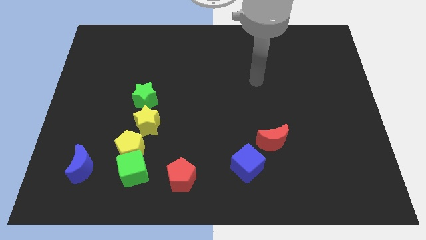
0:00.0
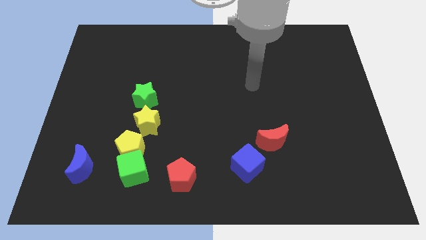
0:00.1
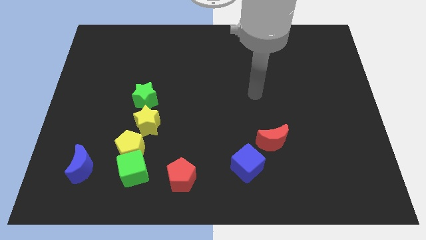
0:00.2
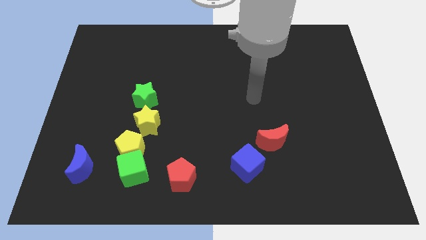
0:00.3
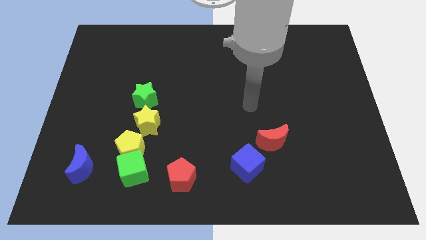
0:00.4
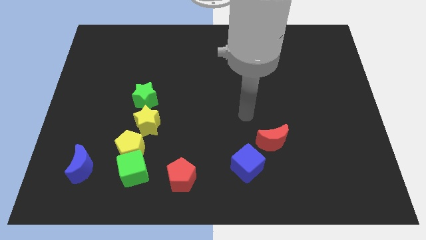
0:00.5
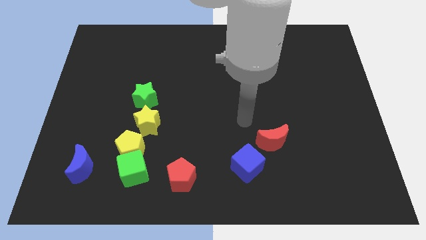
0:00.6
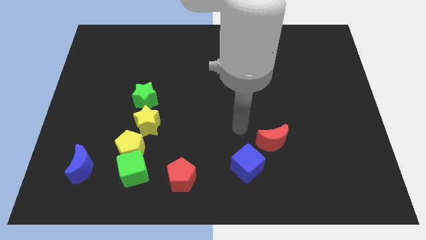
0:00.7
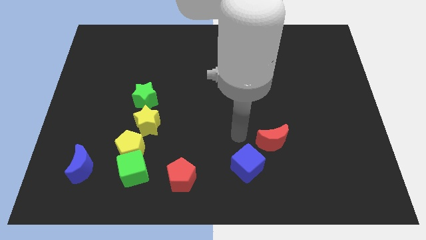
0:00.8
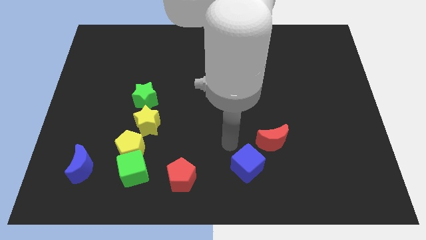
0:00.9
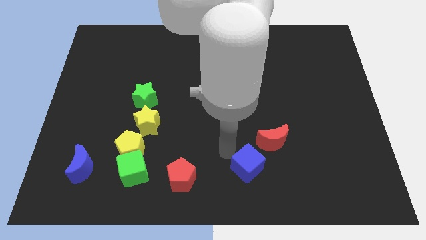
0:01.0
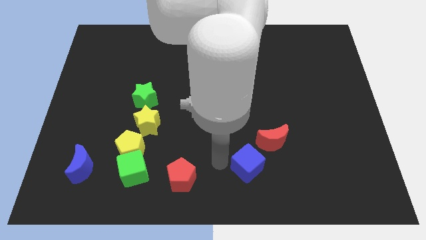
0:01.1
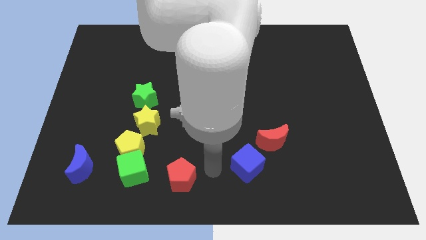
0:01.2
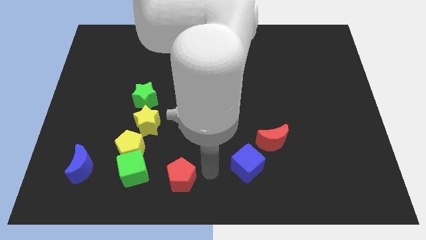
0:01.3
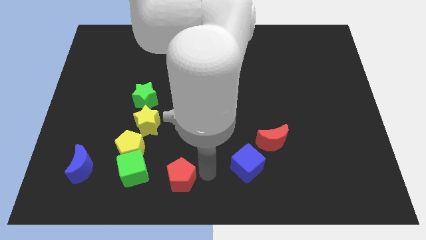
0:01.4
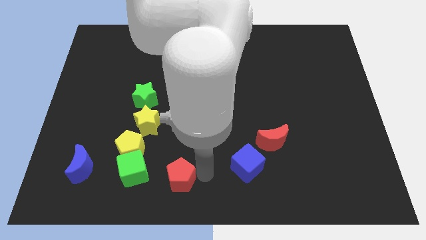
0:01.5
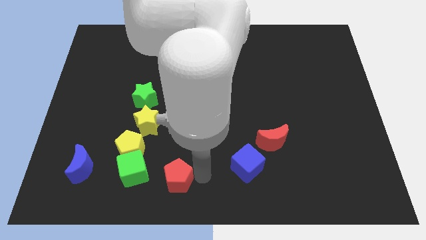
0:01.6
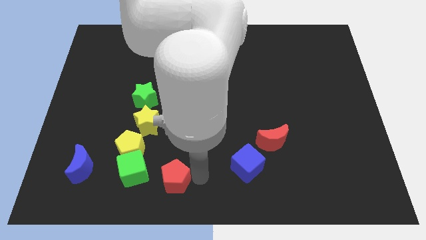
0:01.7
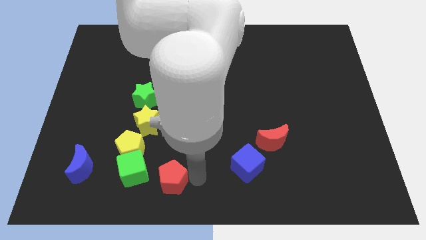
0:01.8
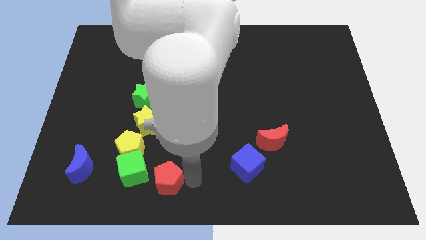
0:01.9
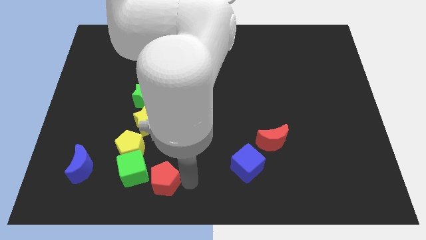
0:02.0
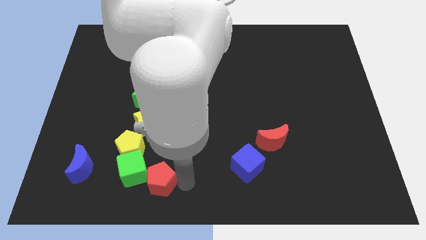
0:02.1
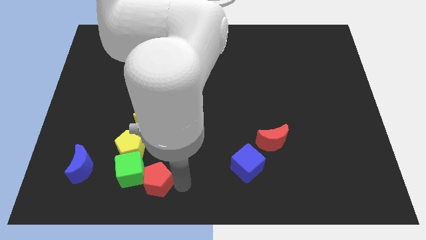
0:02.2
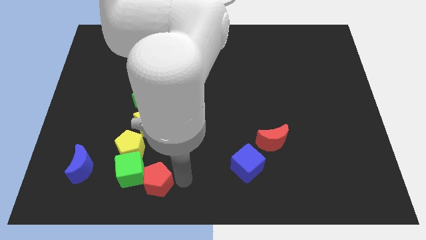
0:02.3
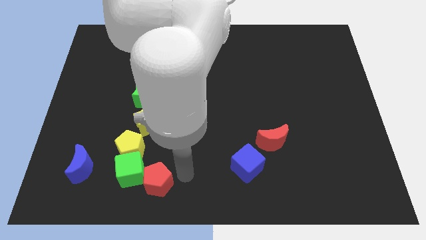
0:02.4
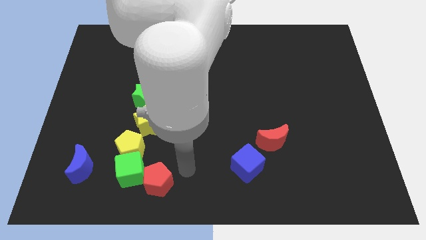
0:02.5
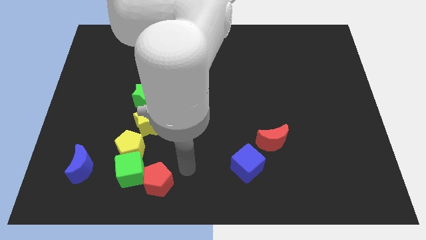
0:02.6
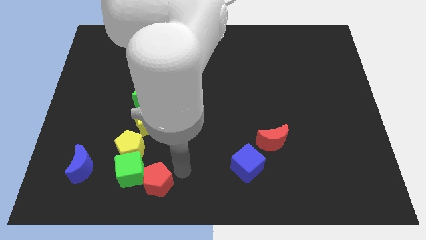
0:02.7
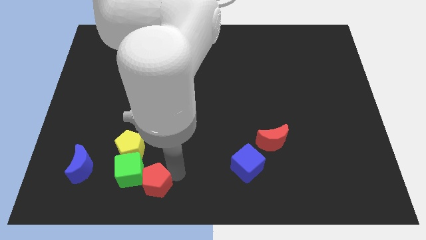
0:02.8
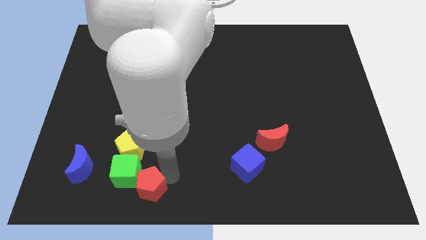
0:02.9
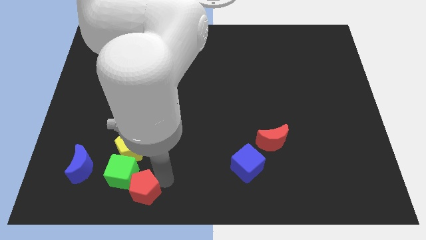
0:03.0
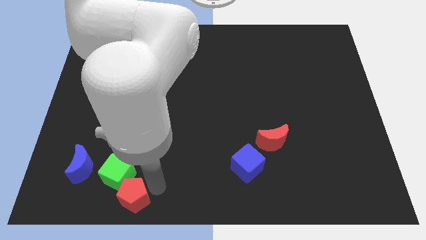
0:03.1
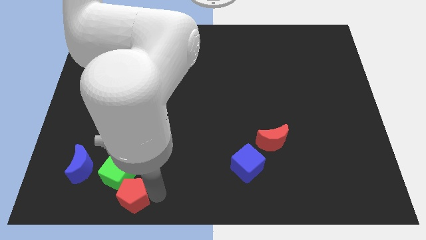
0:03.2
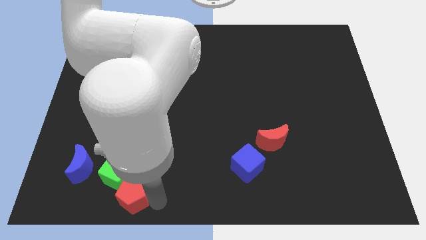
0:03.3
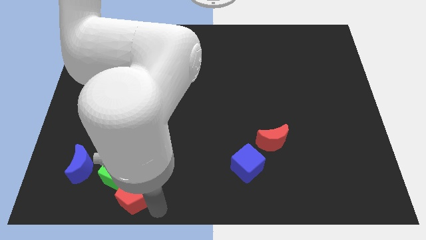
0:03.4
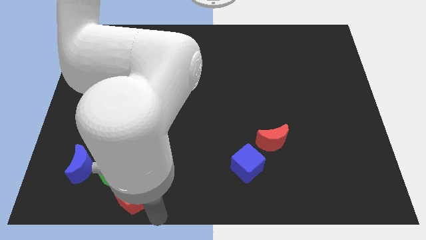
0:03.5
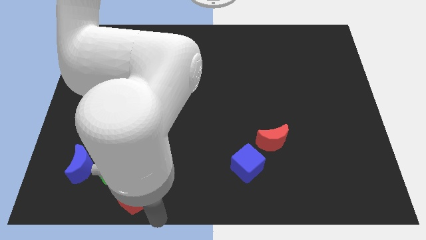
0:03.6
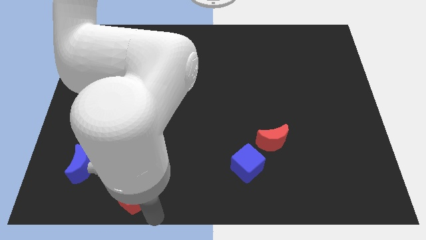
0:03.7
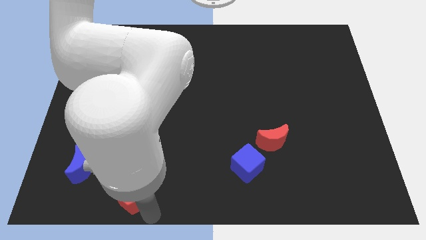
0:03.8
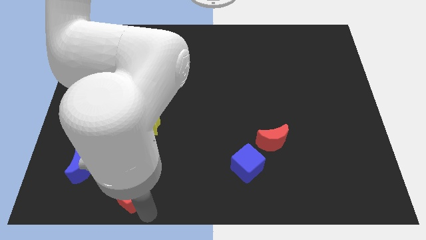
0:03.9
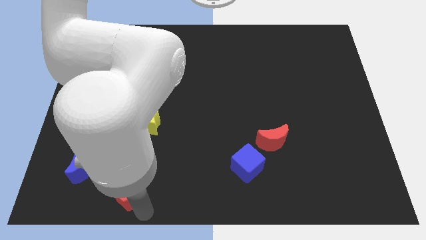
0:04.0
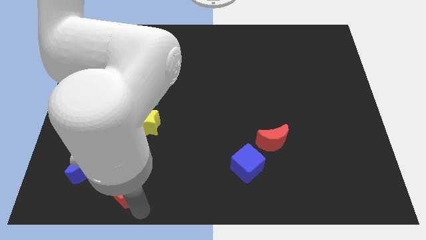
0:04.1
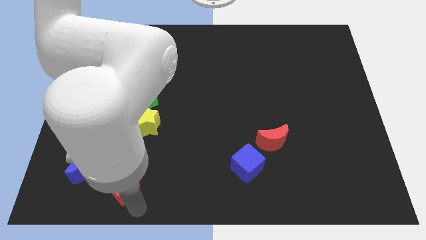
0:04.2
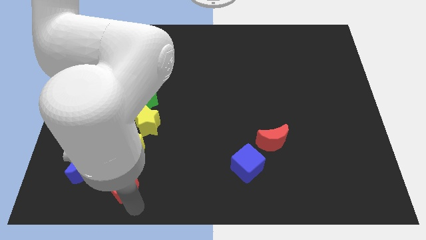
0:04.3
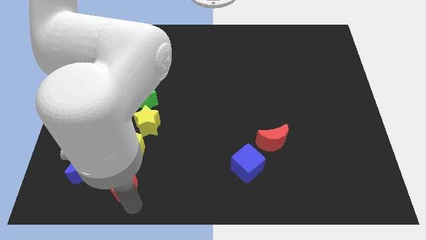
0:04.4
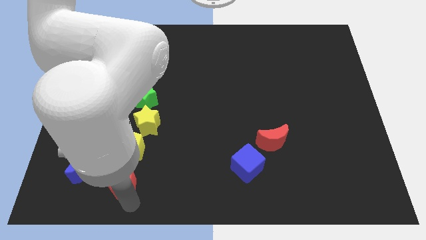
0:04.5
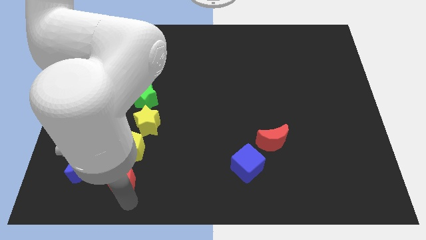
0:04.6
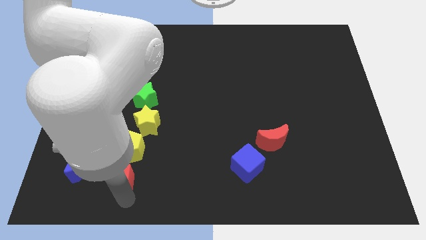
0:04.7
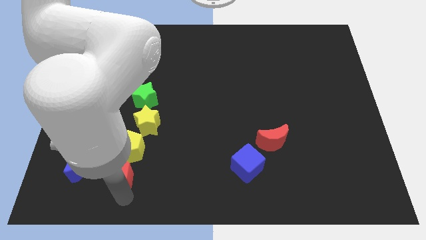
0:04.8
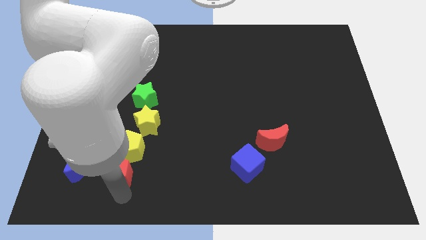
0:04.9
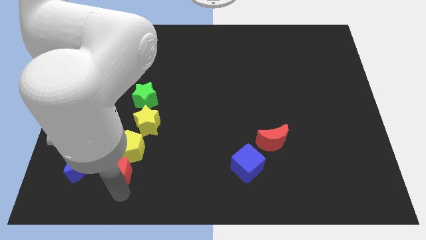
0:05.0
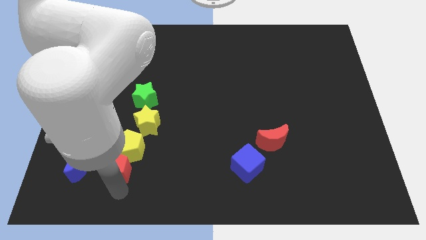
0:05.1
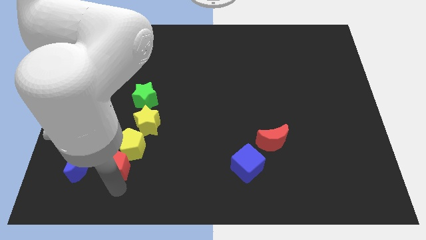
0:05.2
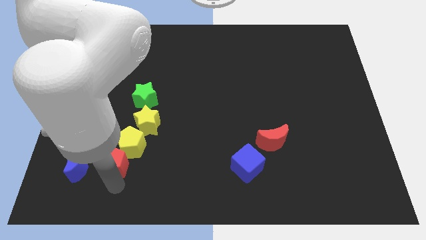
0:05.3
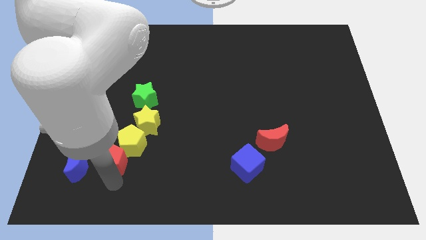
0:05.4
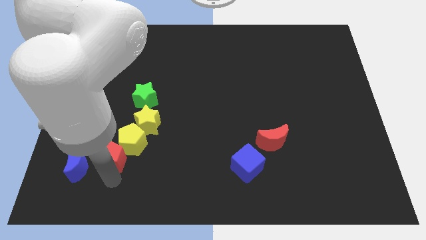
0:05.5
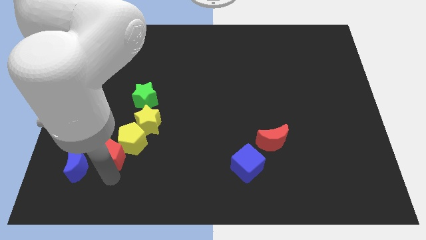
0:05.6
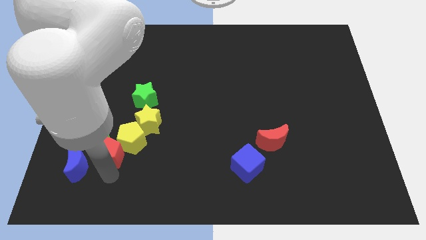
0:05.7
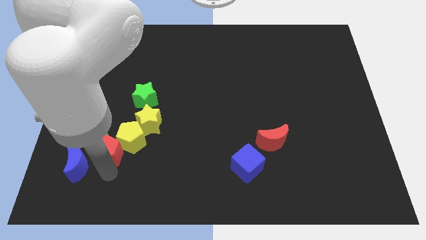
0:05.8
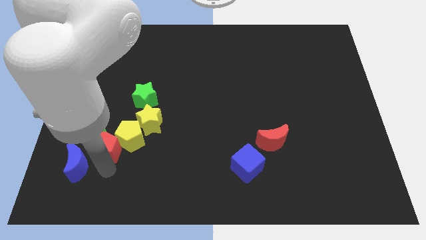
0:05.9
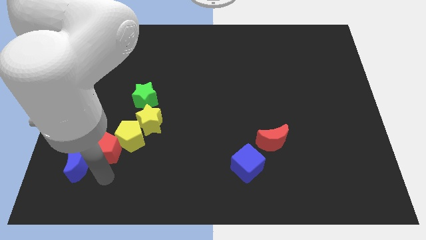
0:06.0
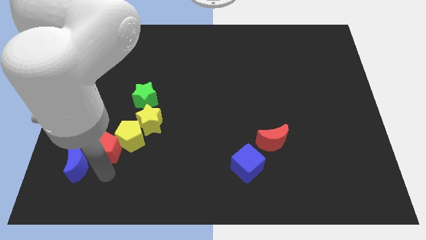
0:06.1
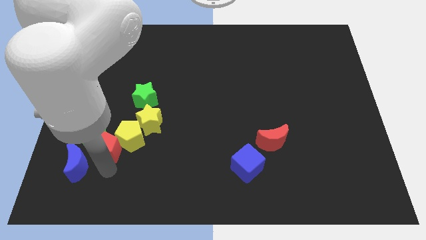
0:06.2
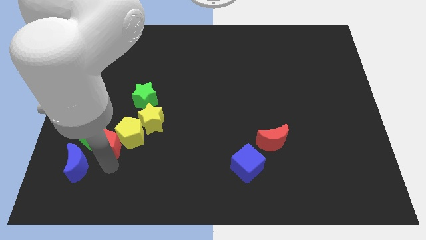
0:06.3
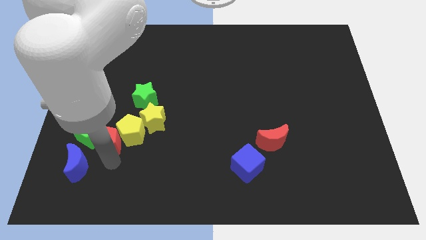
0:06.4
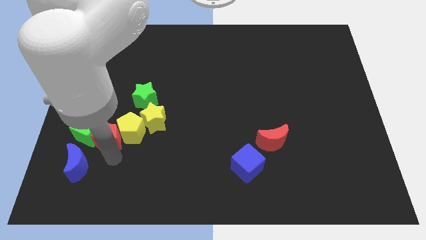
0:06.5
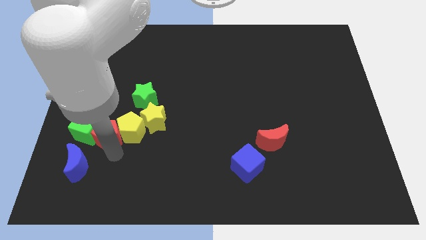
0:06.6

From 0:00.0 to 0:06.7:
slide the red pentagon diagonally up and to the left of the yellow pentagon

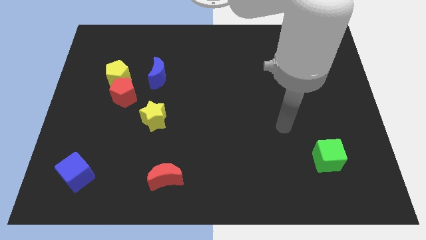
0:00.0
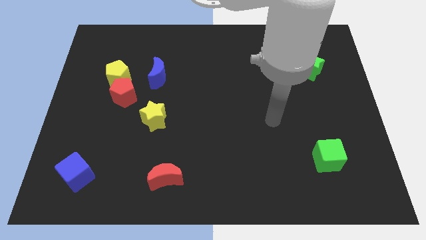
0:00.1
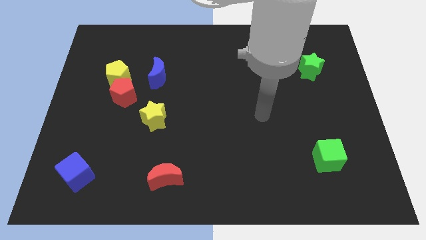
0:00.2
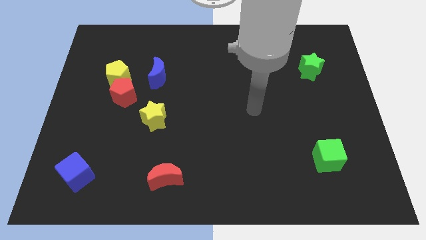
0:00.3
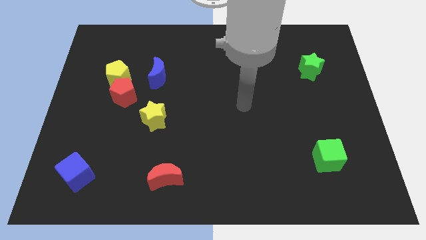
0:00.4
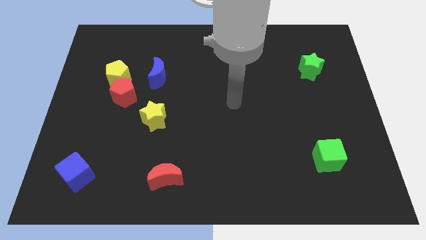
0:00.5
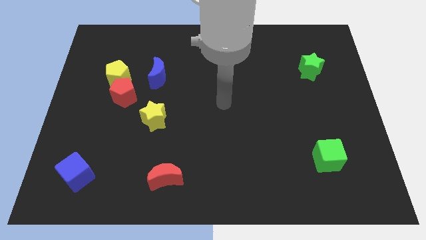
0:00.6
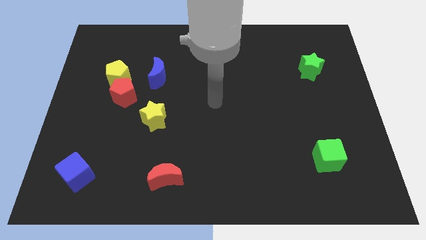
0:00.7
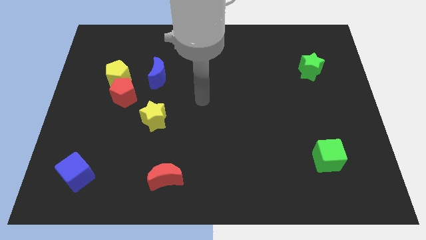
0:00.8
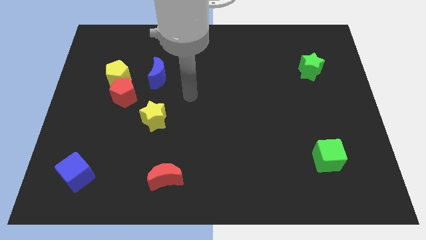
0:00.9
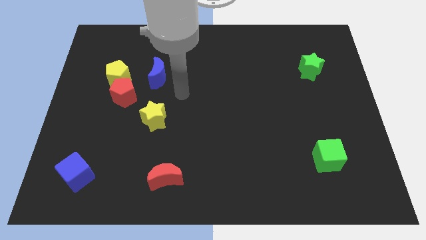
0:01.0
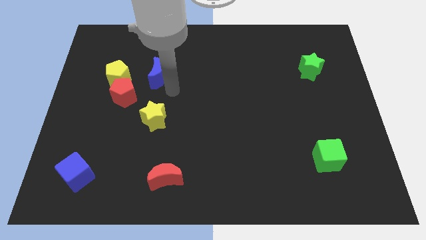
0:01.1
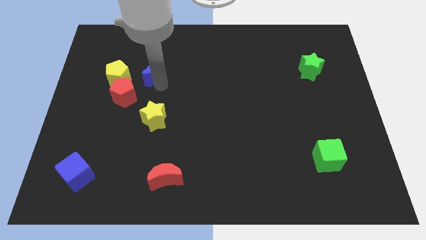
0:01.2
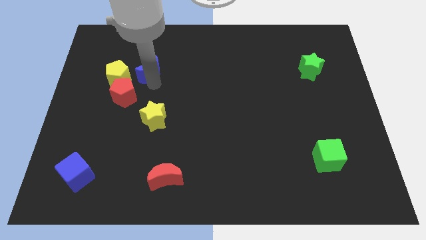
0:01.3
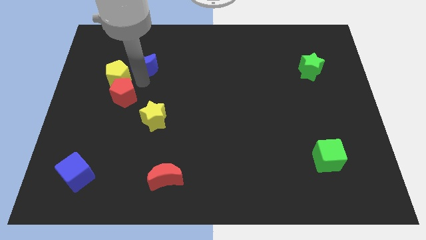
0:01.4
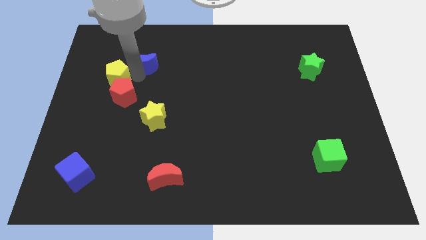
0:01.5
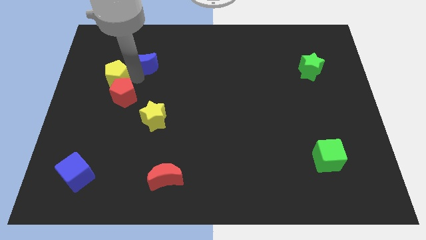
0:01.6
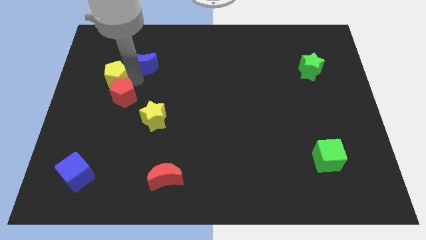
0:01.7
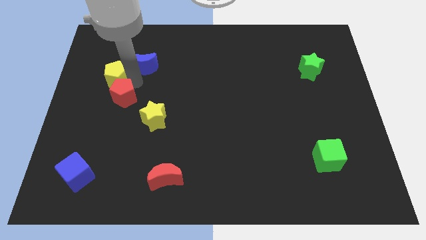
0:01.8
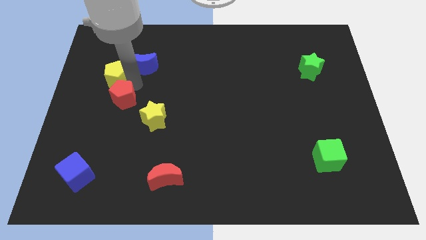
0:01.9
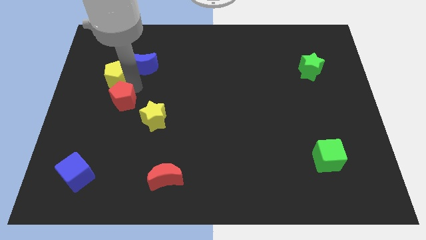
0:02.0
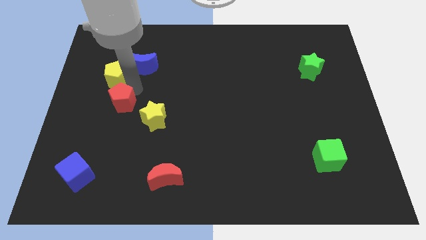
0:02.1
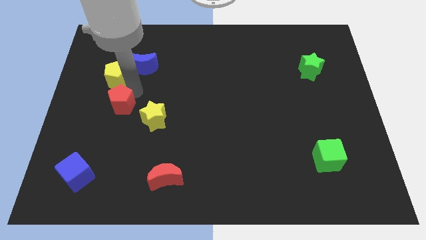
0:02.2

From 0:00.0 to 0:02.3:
push the red pentagon to the left of the yellow star
